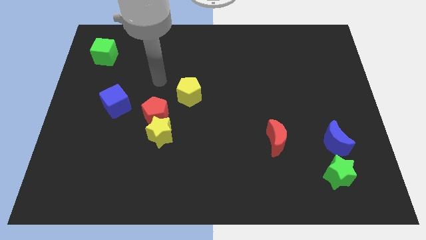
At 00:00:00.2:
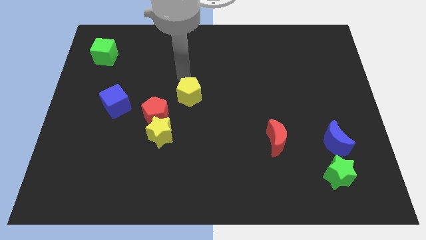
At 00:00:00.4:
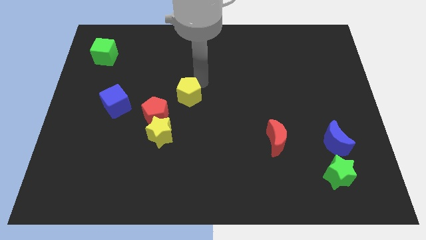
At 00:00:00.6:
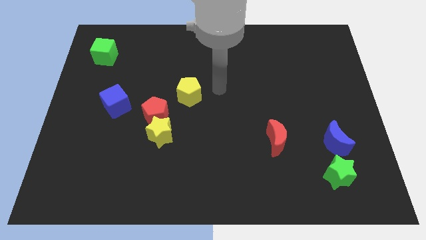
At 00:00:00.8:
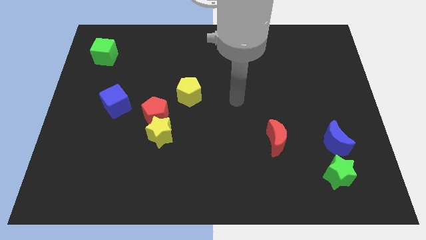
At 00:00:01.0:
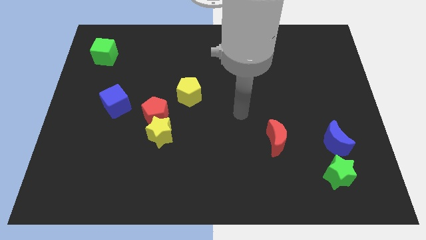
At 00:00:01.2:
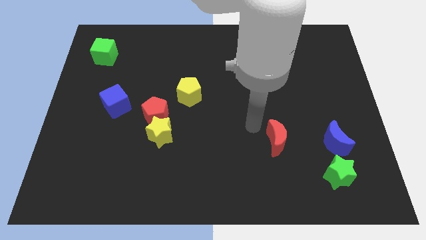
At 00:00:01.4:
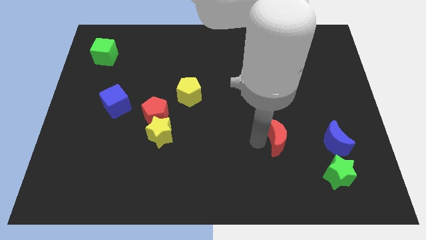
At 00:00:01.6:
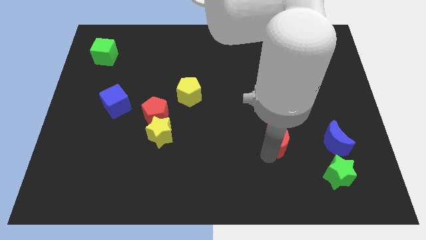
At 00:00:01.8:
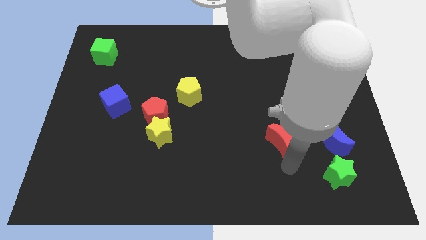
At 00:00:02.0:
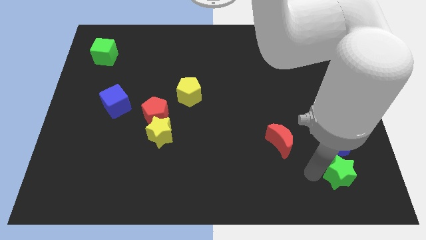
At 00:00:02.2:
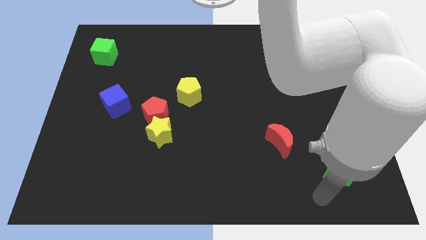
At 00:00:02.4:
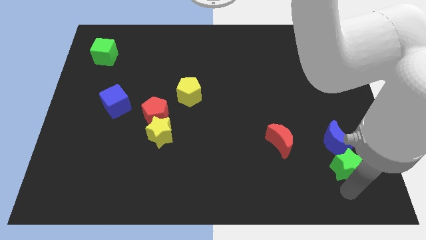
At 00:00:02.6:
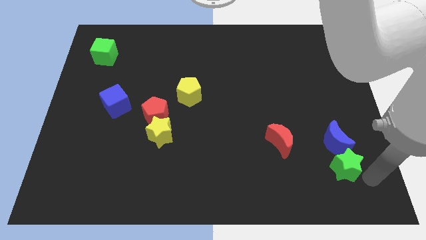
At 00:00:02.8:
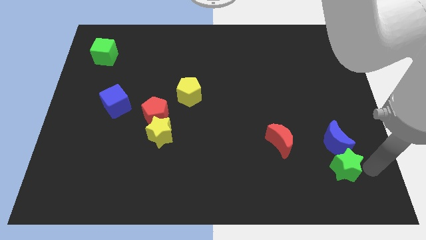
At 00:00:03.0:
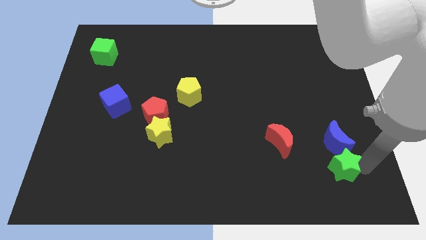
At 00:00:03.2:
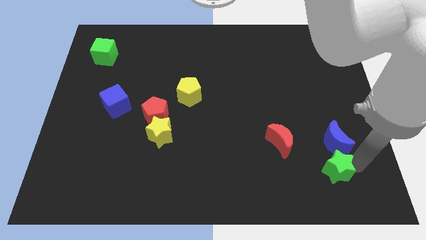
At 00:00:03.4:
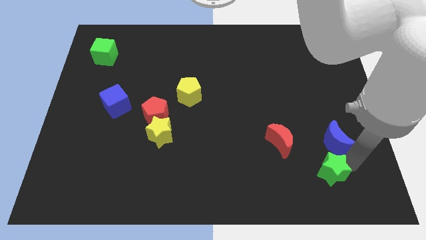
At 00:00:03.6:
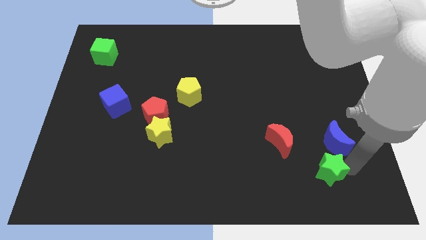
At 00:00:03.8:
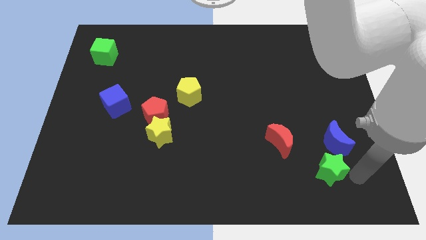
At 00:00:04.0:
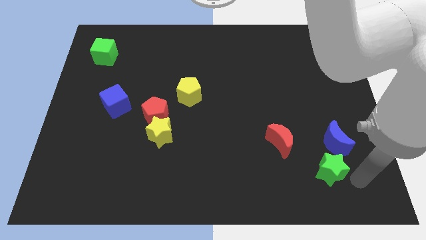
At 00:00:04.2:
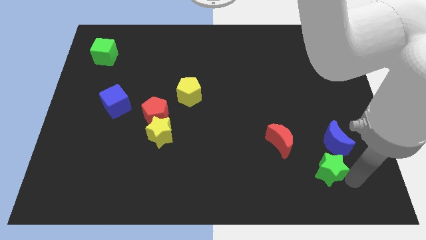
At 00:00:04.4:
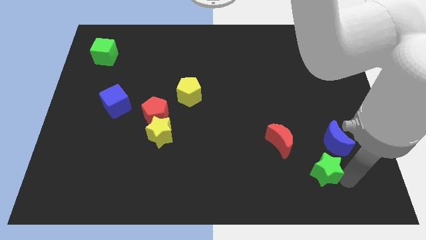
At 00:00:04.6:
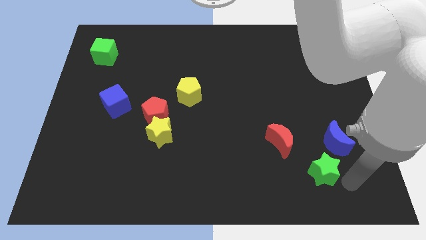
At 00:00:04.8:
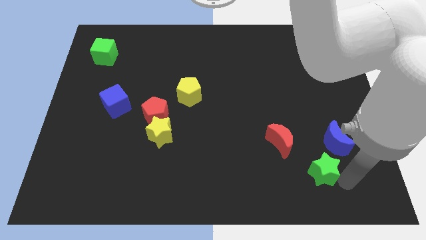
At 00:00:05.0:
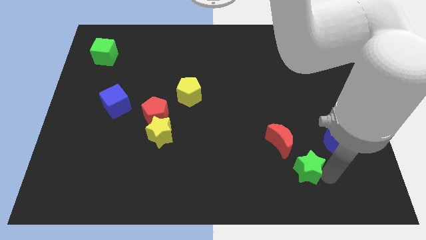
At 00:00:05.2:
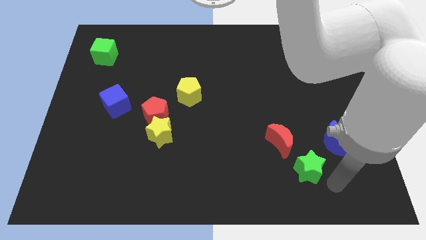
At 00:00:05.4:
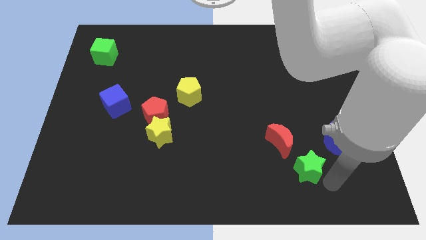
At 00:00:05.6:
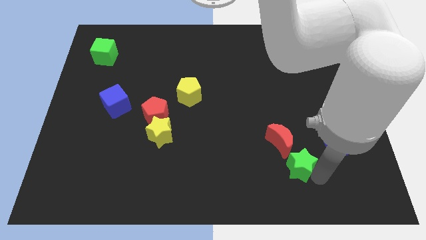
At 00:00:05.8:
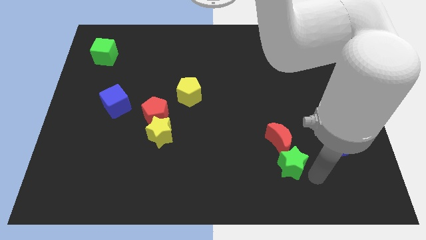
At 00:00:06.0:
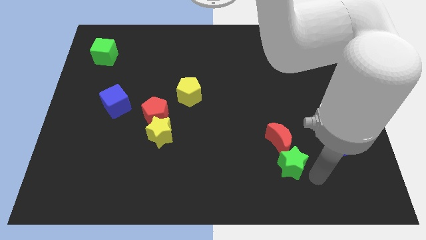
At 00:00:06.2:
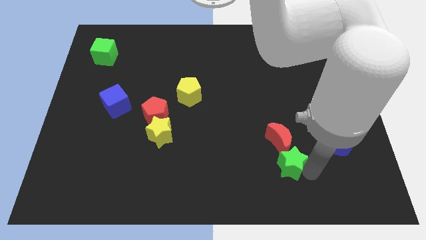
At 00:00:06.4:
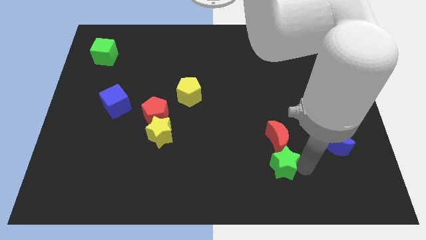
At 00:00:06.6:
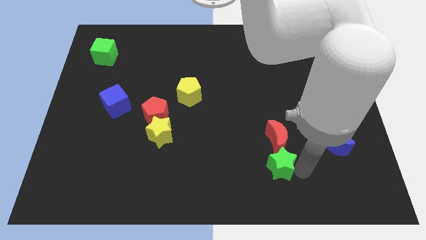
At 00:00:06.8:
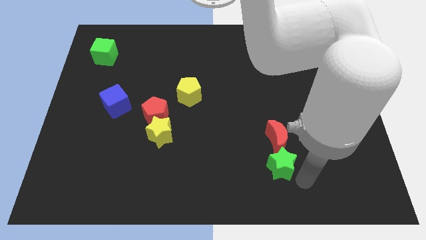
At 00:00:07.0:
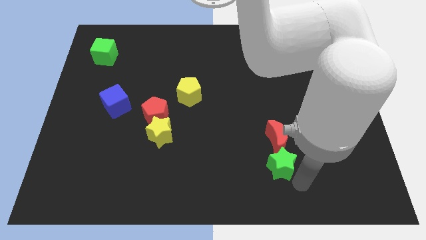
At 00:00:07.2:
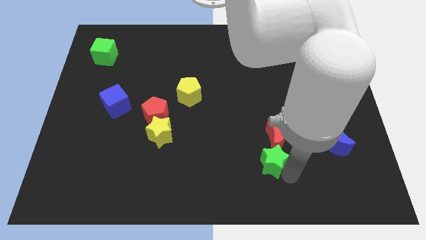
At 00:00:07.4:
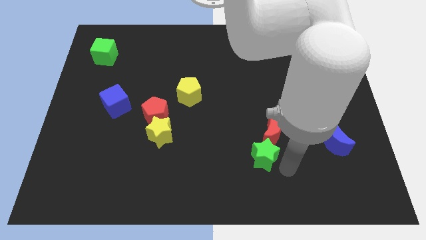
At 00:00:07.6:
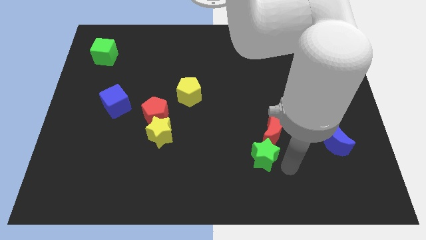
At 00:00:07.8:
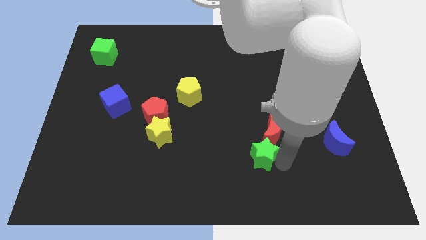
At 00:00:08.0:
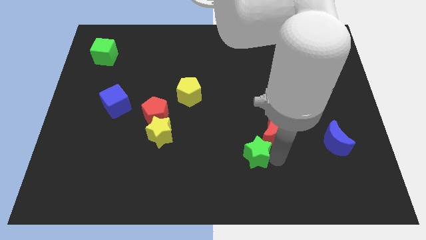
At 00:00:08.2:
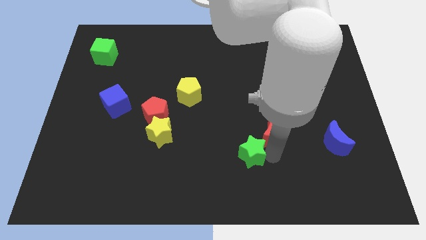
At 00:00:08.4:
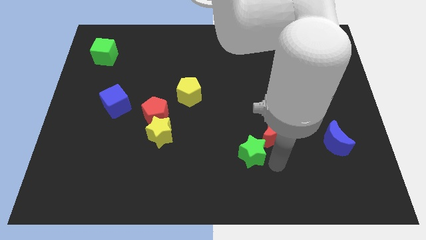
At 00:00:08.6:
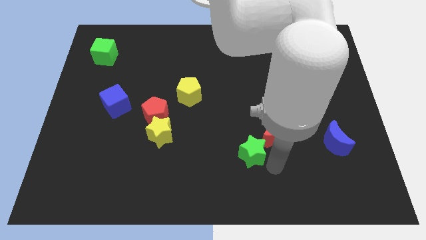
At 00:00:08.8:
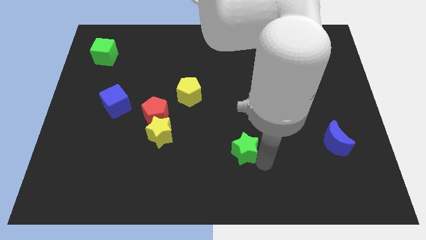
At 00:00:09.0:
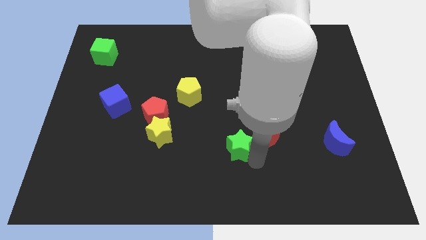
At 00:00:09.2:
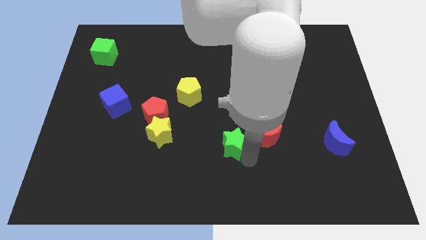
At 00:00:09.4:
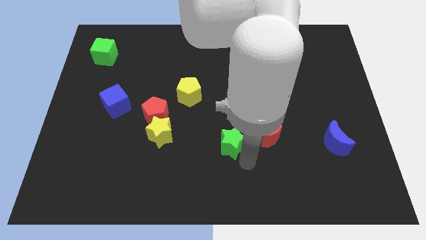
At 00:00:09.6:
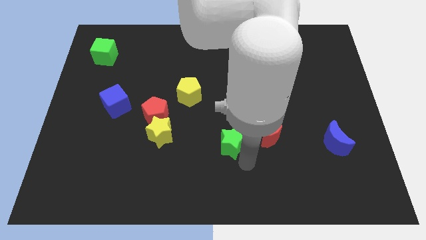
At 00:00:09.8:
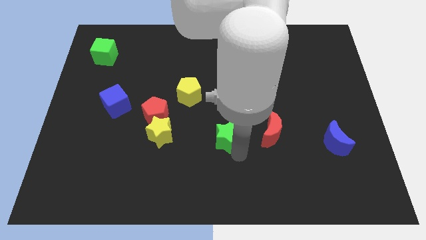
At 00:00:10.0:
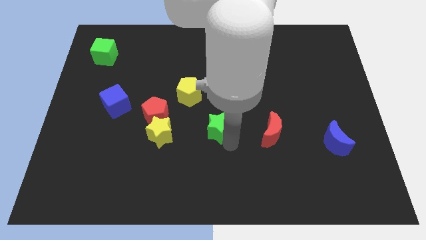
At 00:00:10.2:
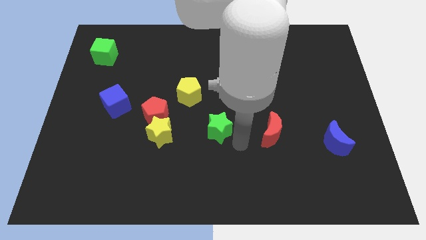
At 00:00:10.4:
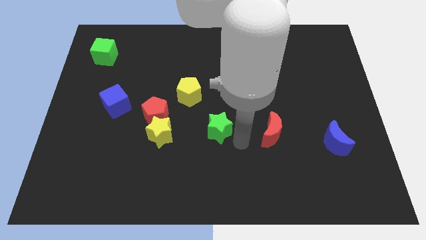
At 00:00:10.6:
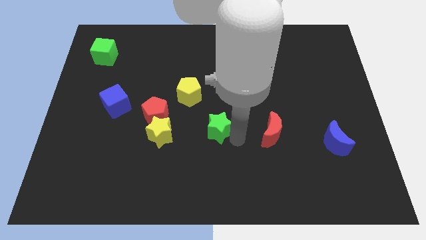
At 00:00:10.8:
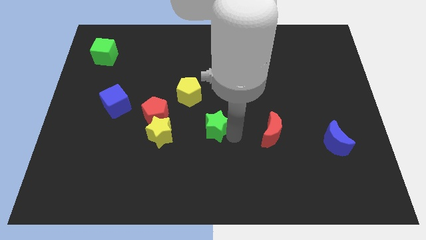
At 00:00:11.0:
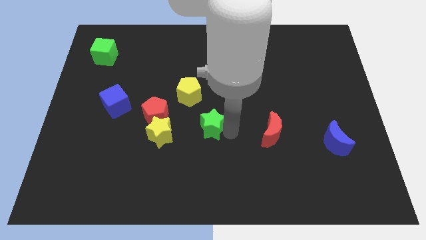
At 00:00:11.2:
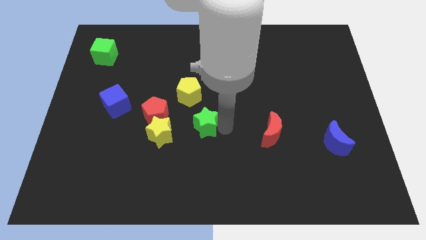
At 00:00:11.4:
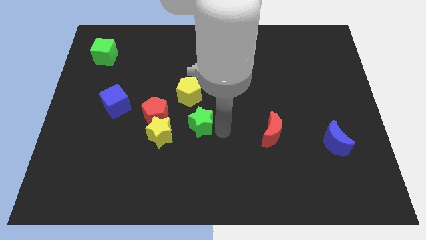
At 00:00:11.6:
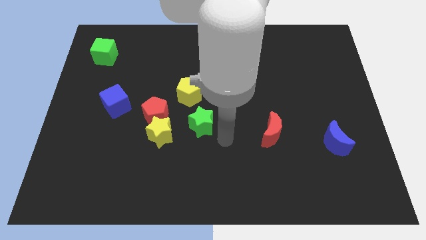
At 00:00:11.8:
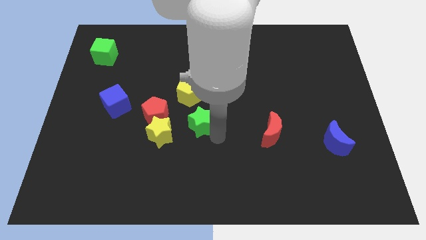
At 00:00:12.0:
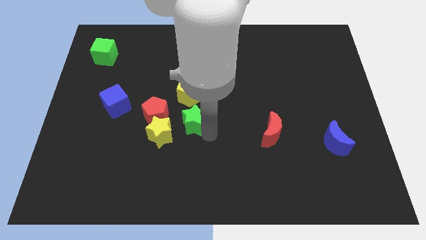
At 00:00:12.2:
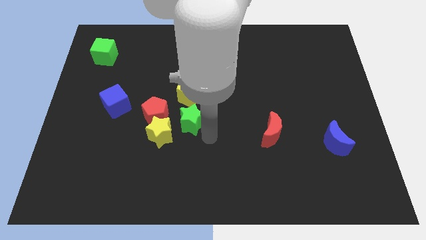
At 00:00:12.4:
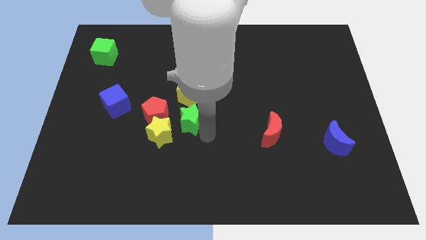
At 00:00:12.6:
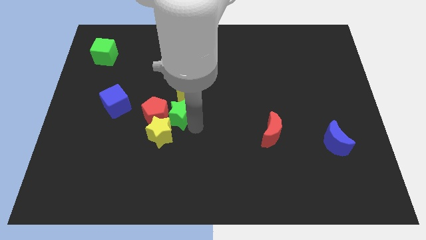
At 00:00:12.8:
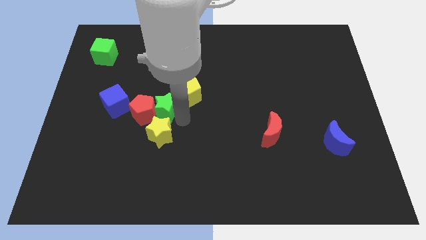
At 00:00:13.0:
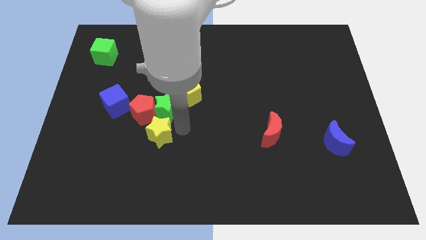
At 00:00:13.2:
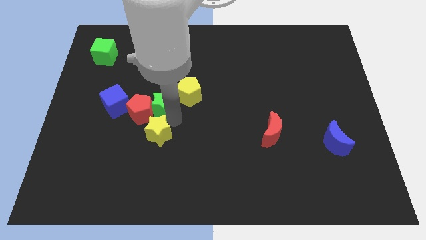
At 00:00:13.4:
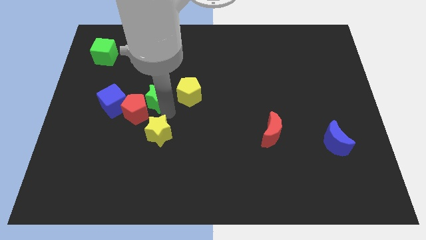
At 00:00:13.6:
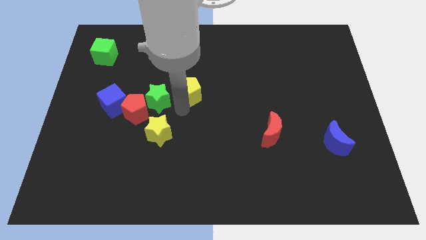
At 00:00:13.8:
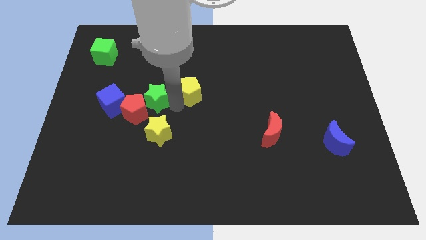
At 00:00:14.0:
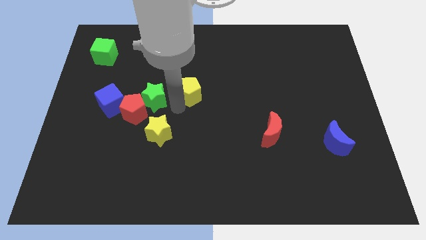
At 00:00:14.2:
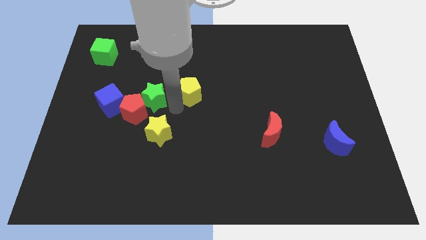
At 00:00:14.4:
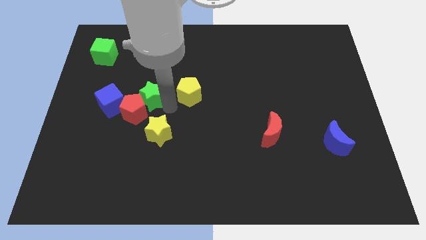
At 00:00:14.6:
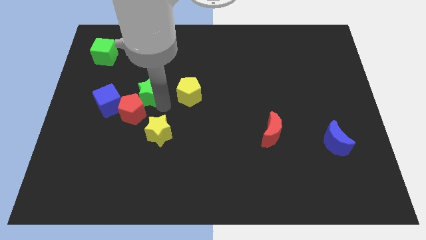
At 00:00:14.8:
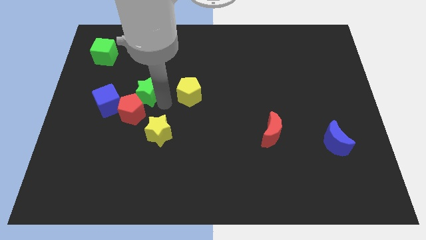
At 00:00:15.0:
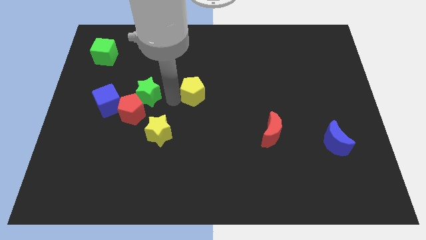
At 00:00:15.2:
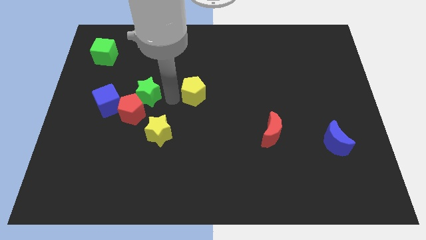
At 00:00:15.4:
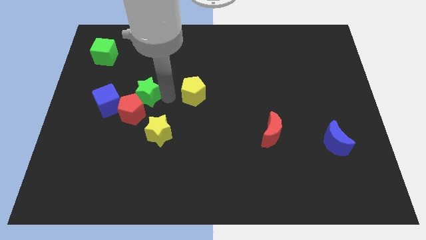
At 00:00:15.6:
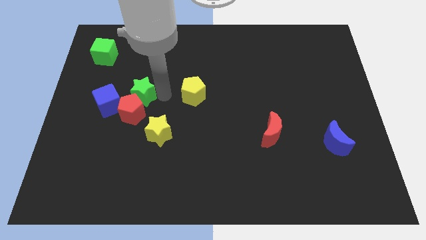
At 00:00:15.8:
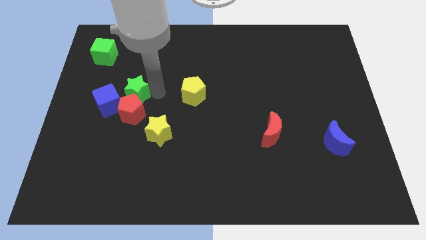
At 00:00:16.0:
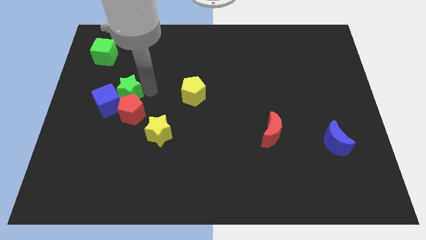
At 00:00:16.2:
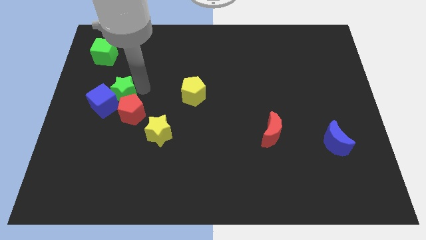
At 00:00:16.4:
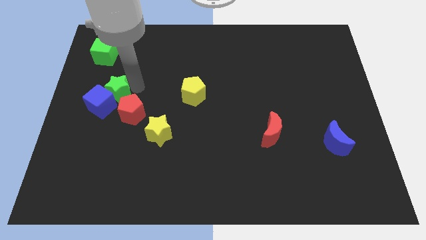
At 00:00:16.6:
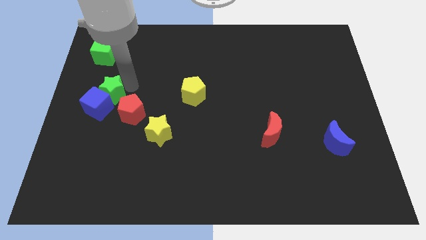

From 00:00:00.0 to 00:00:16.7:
move the green star below the green cube
